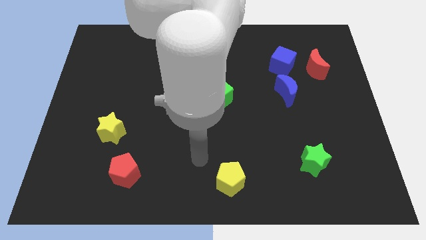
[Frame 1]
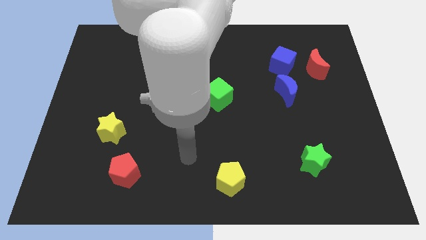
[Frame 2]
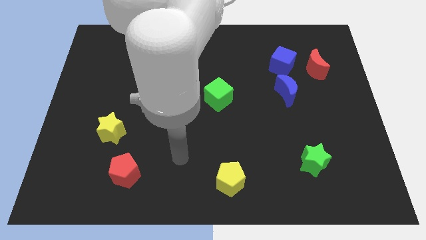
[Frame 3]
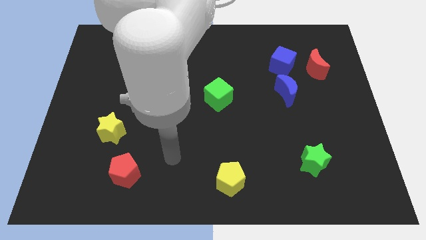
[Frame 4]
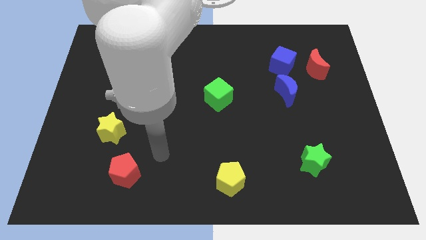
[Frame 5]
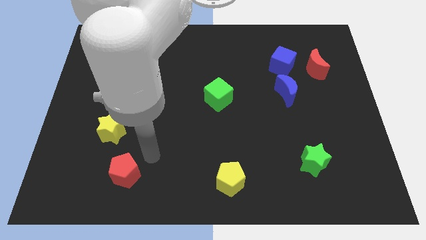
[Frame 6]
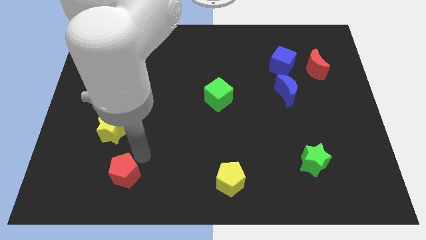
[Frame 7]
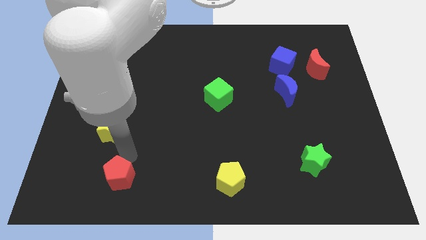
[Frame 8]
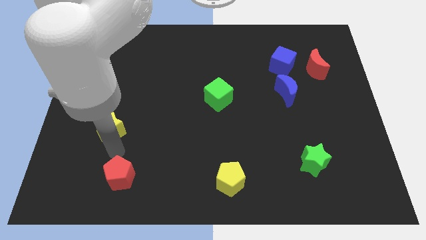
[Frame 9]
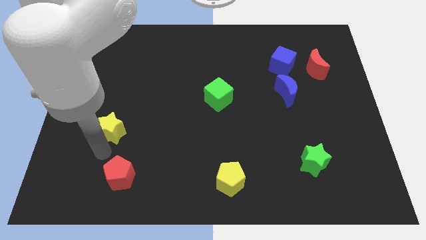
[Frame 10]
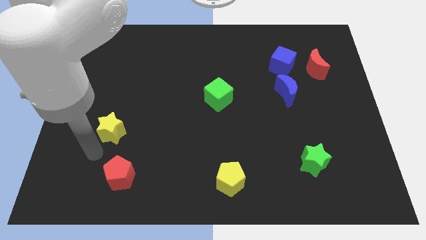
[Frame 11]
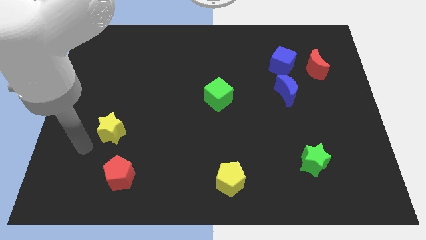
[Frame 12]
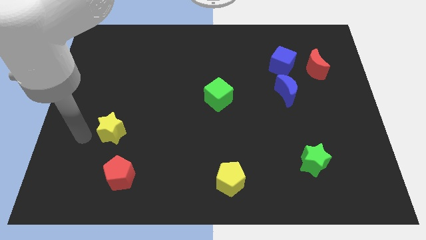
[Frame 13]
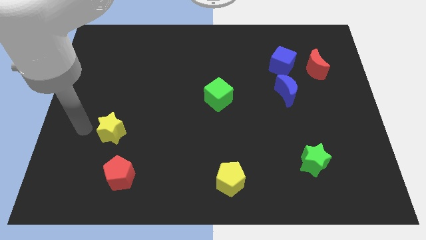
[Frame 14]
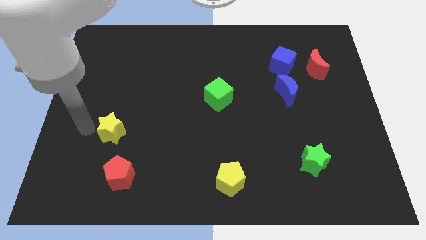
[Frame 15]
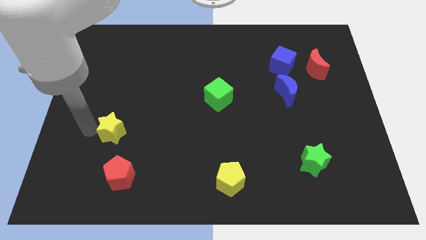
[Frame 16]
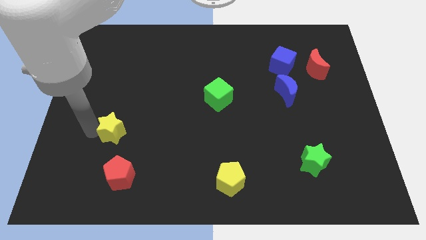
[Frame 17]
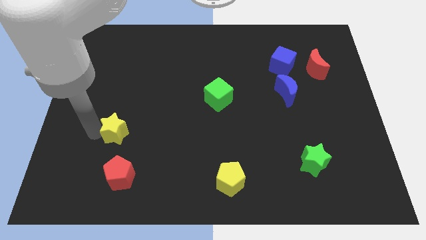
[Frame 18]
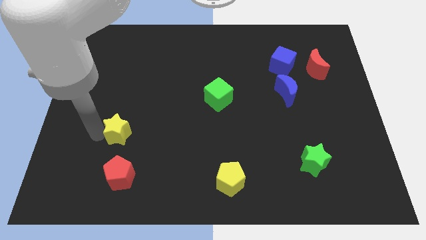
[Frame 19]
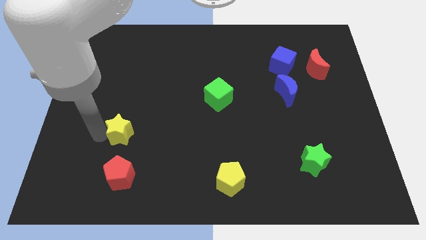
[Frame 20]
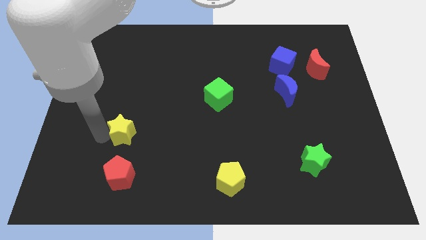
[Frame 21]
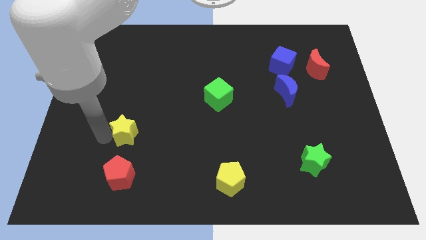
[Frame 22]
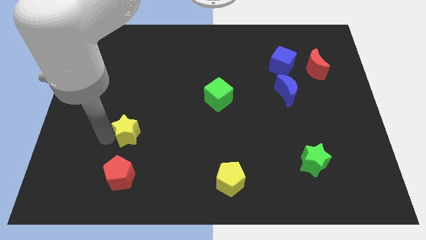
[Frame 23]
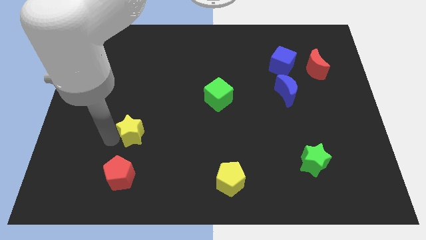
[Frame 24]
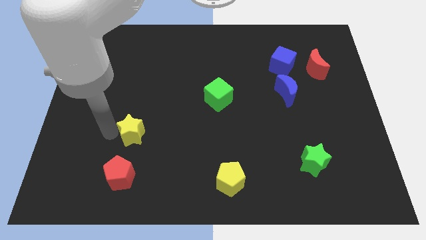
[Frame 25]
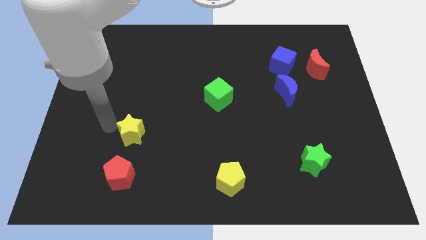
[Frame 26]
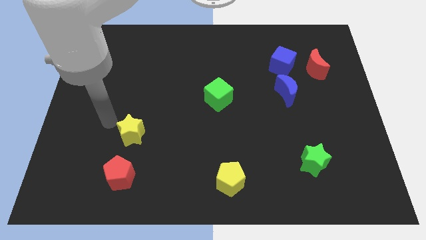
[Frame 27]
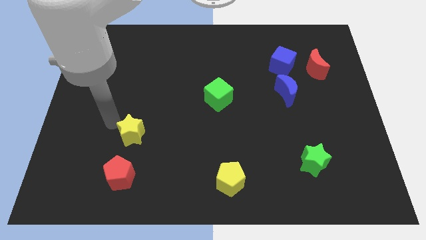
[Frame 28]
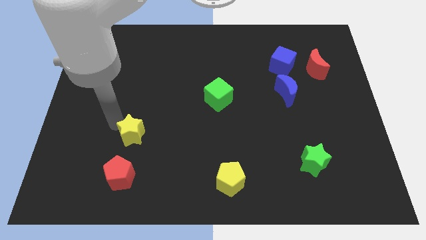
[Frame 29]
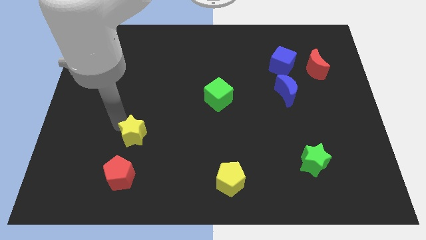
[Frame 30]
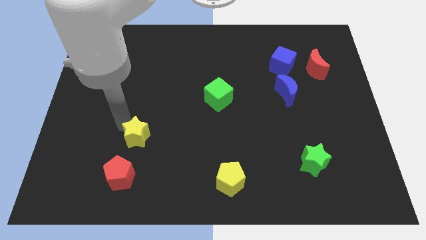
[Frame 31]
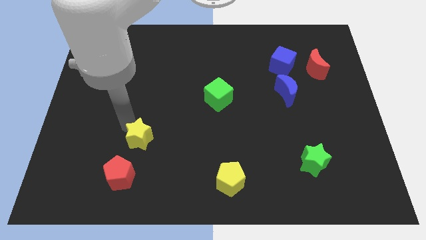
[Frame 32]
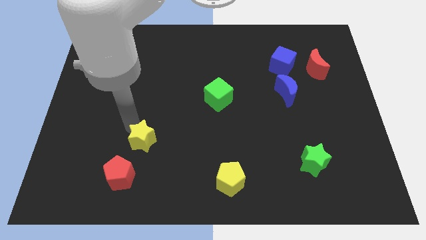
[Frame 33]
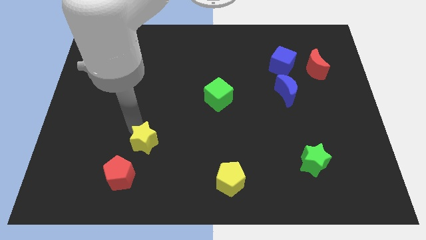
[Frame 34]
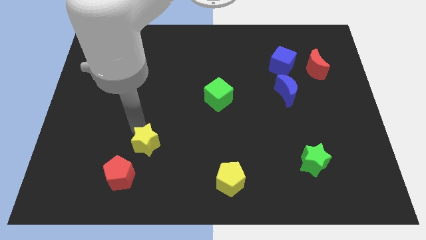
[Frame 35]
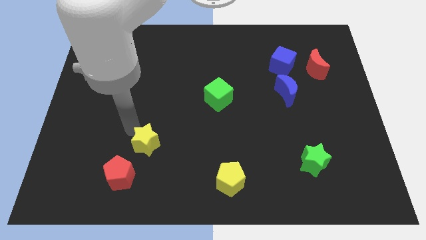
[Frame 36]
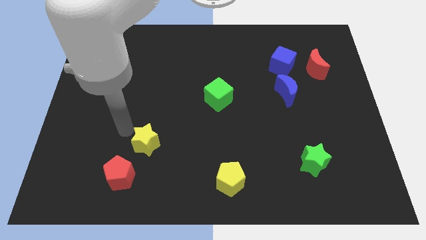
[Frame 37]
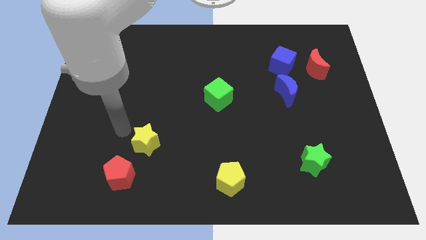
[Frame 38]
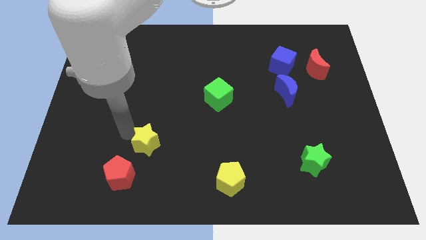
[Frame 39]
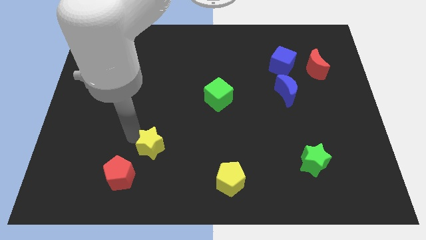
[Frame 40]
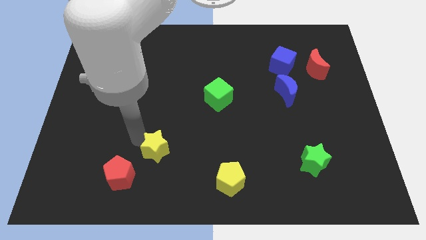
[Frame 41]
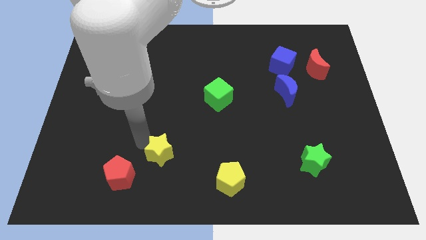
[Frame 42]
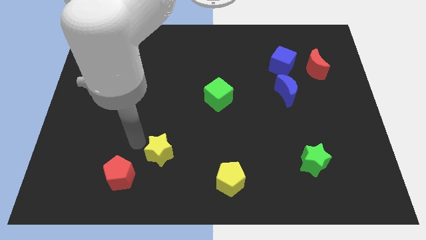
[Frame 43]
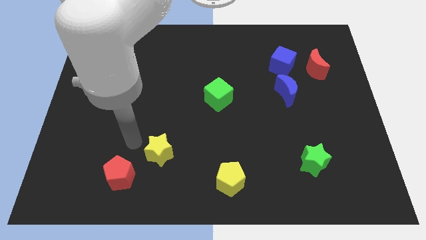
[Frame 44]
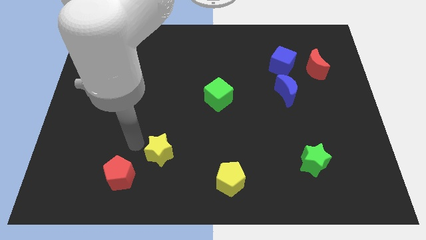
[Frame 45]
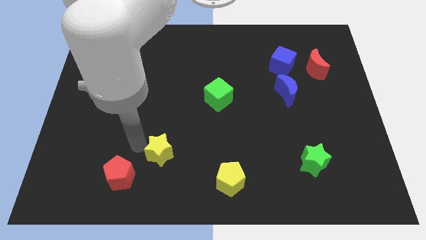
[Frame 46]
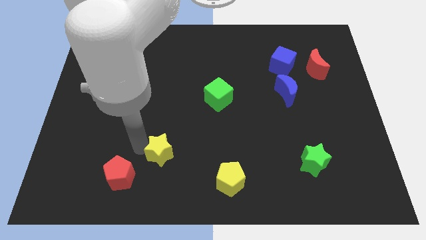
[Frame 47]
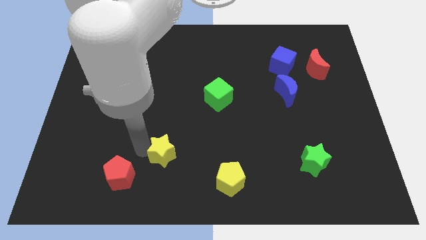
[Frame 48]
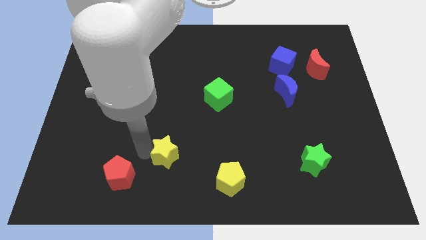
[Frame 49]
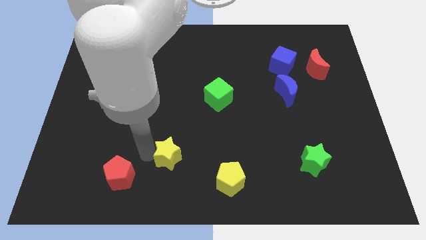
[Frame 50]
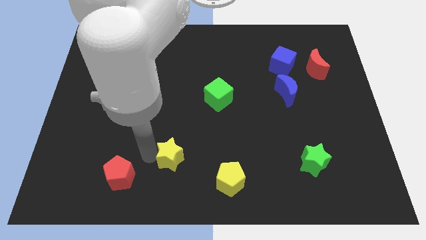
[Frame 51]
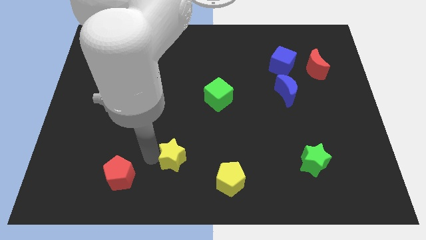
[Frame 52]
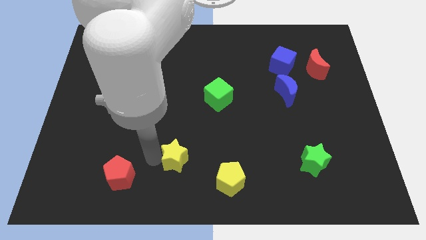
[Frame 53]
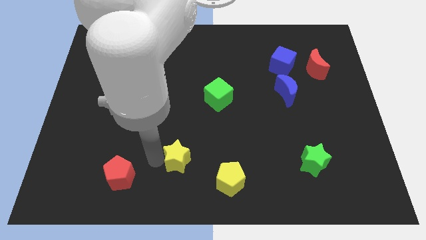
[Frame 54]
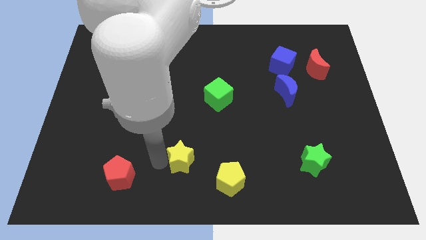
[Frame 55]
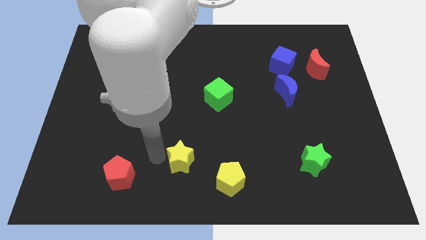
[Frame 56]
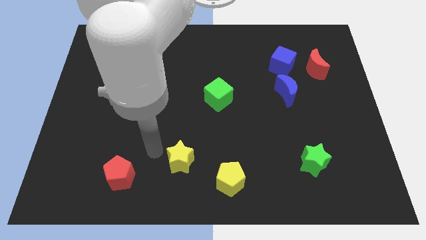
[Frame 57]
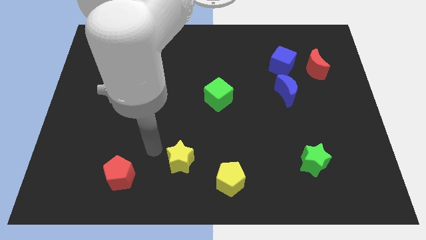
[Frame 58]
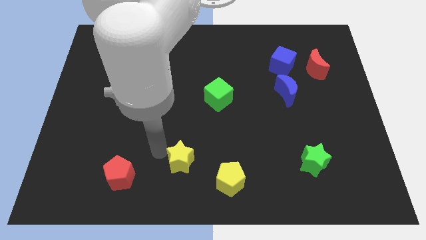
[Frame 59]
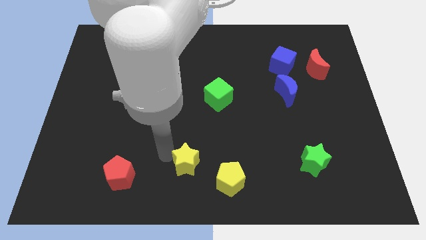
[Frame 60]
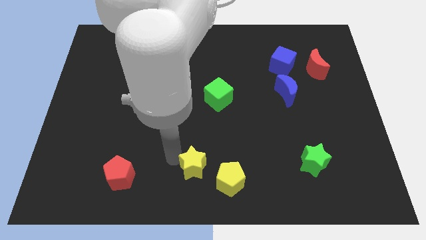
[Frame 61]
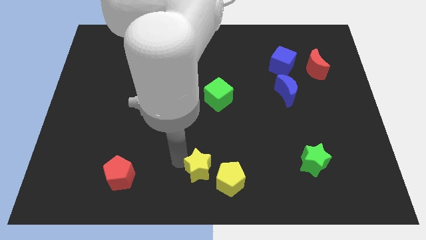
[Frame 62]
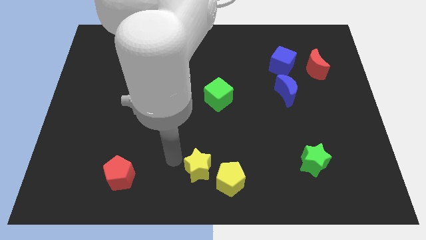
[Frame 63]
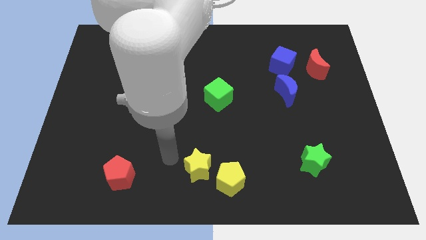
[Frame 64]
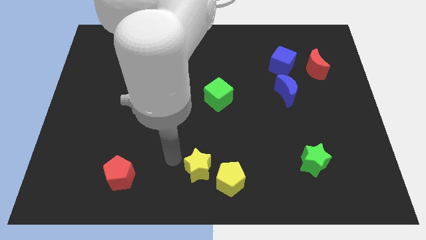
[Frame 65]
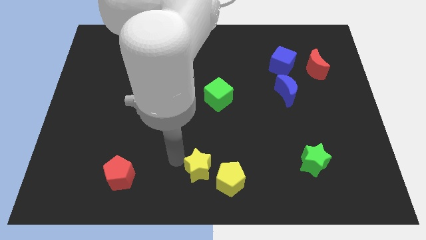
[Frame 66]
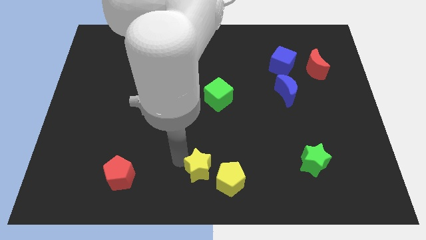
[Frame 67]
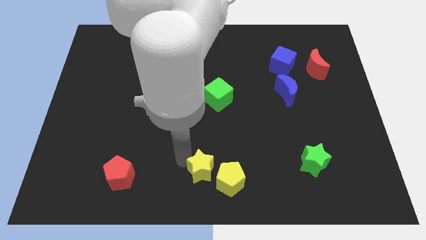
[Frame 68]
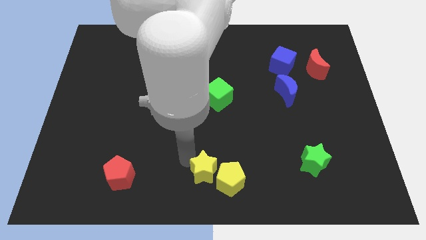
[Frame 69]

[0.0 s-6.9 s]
slide the yellow star next to the yellow pentagon

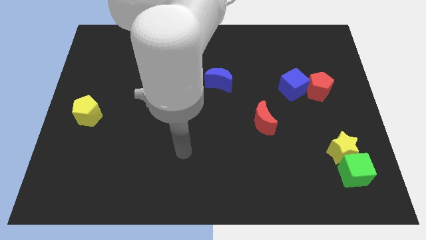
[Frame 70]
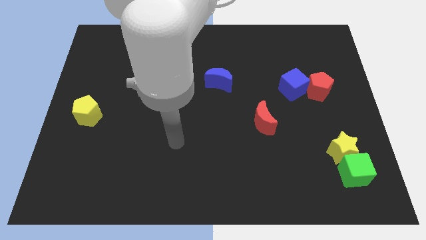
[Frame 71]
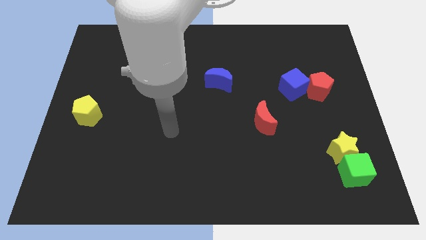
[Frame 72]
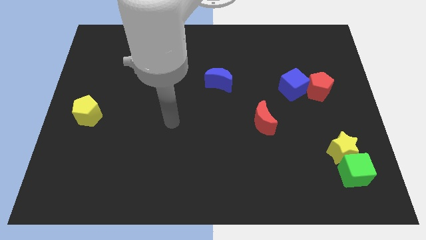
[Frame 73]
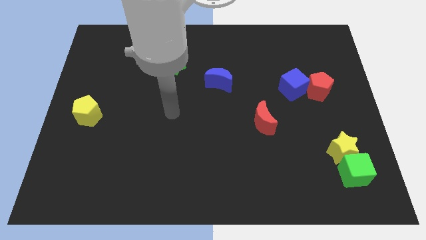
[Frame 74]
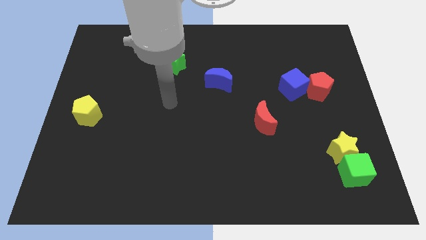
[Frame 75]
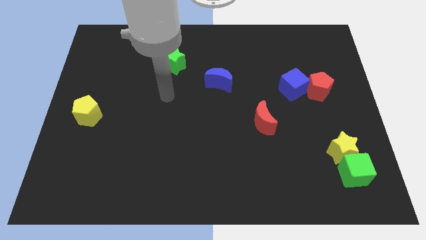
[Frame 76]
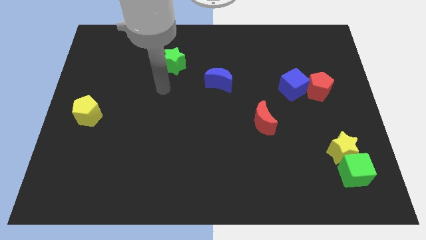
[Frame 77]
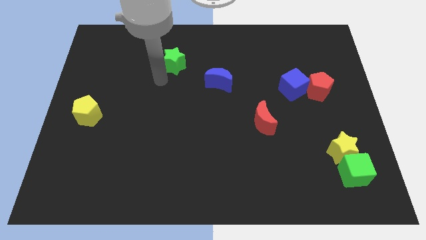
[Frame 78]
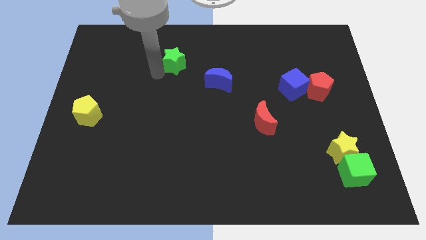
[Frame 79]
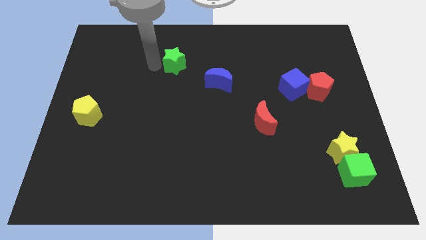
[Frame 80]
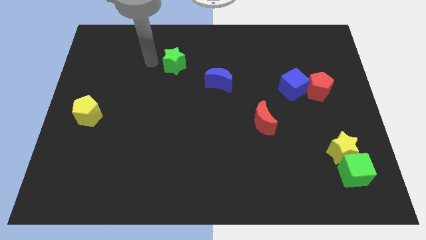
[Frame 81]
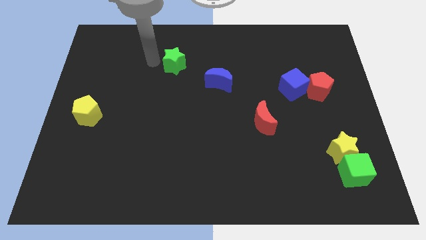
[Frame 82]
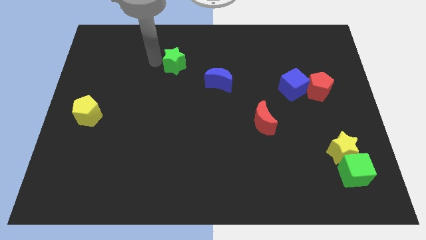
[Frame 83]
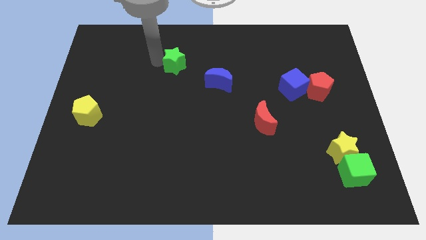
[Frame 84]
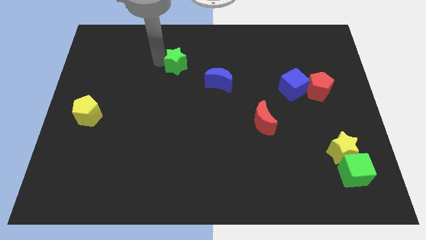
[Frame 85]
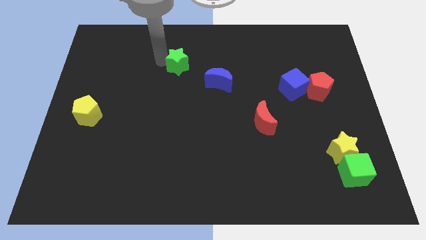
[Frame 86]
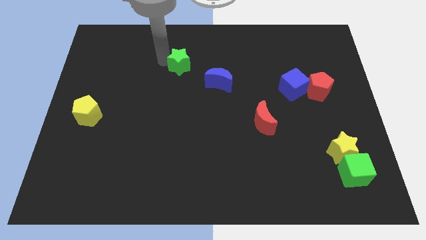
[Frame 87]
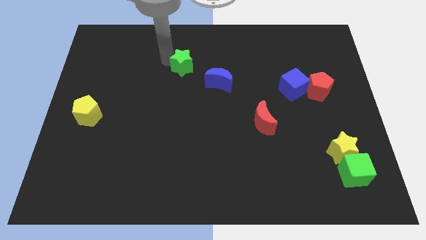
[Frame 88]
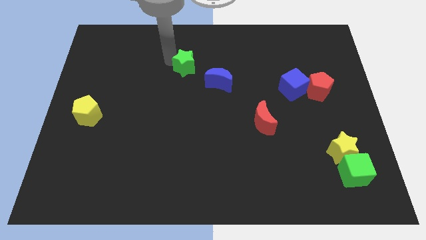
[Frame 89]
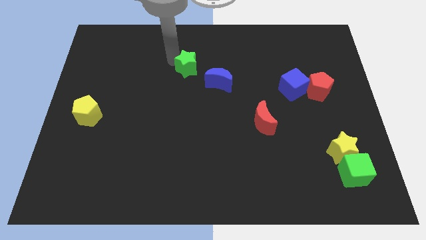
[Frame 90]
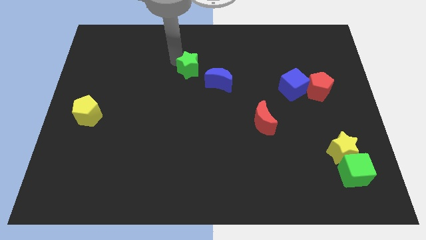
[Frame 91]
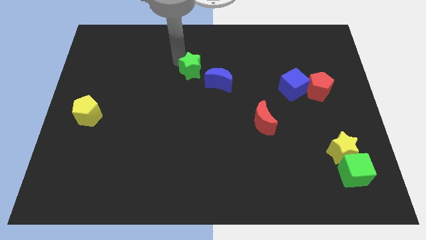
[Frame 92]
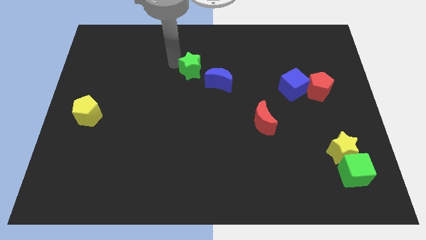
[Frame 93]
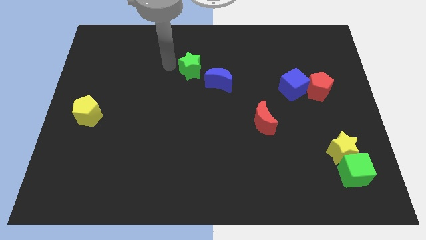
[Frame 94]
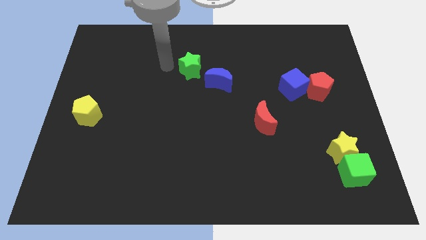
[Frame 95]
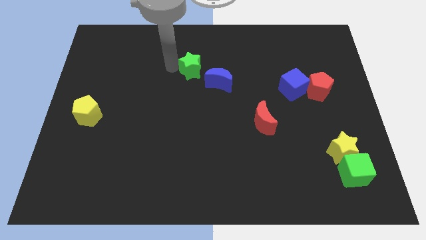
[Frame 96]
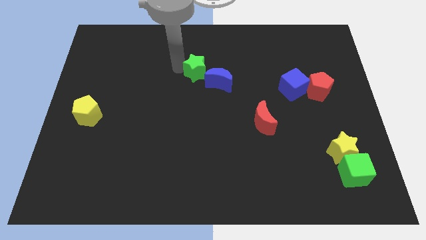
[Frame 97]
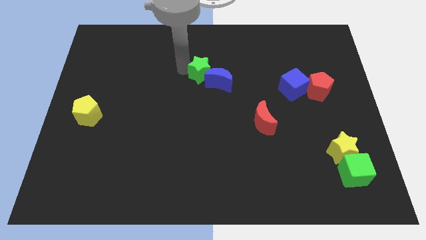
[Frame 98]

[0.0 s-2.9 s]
slide the green star next to the blue moon
